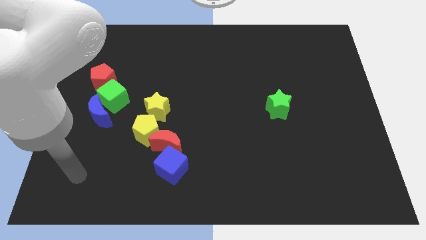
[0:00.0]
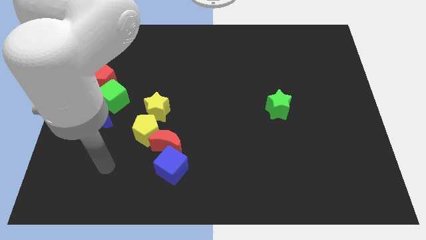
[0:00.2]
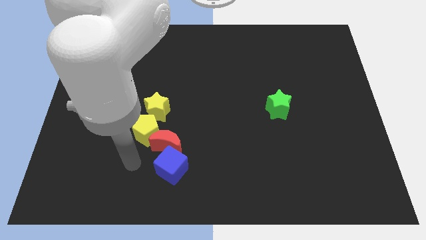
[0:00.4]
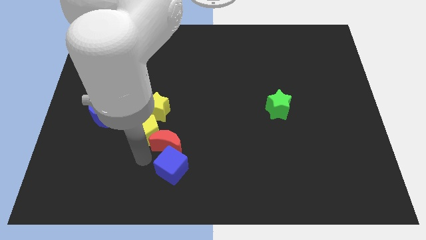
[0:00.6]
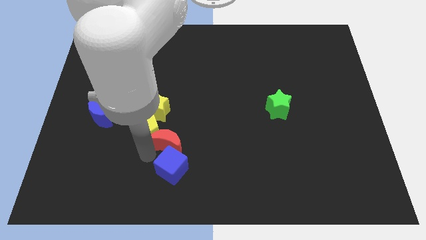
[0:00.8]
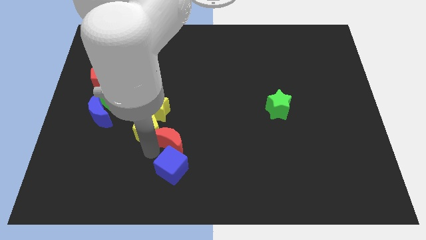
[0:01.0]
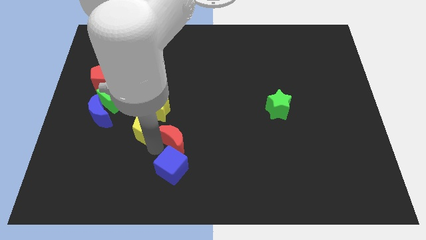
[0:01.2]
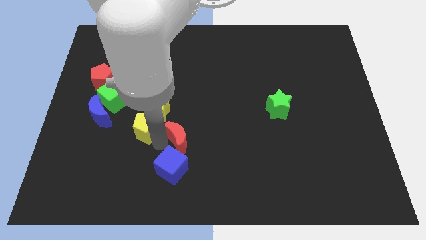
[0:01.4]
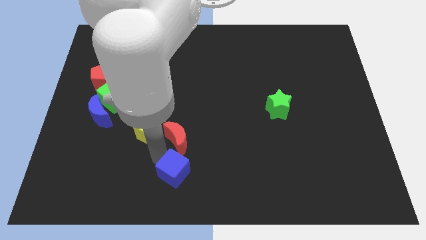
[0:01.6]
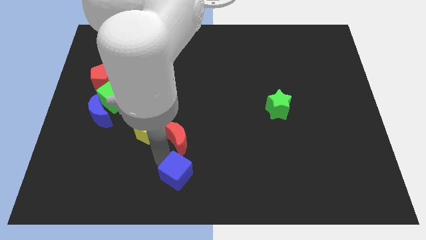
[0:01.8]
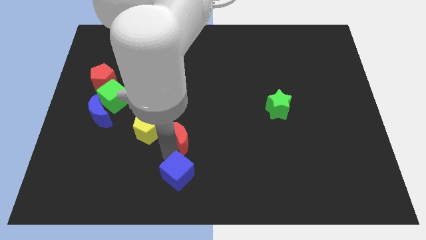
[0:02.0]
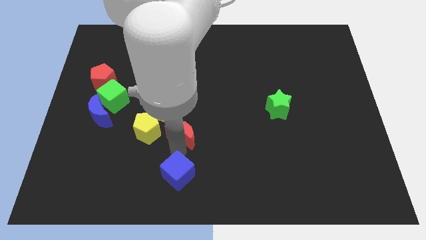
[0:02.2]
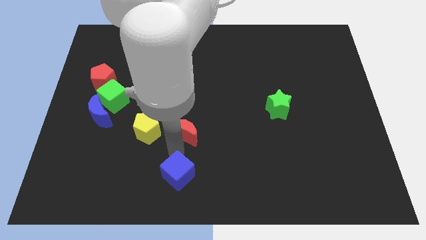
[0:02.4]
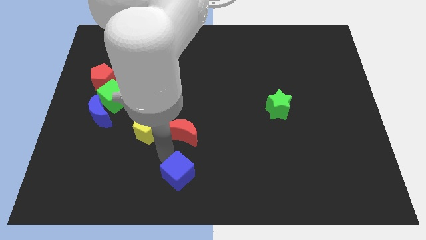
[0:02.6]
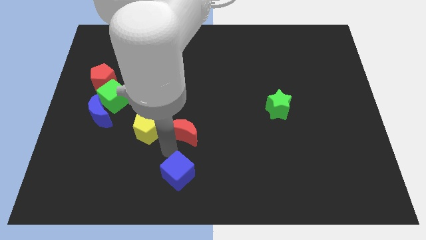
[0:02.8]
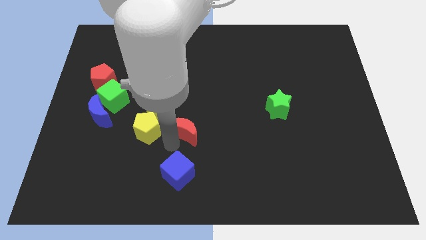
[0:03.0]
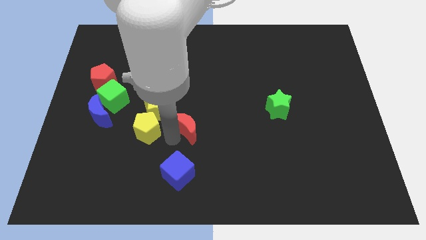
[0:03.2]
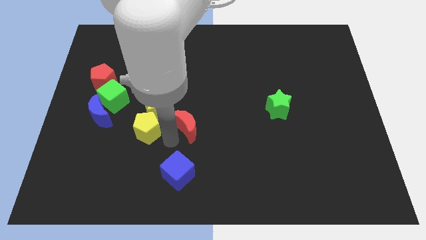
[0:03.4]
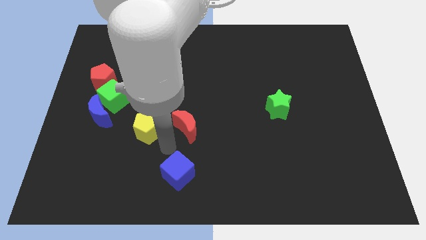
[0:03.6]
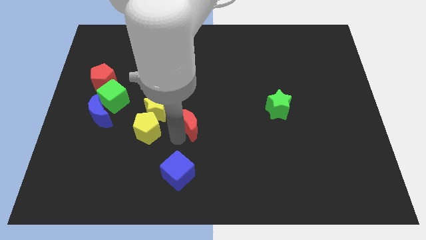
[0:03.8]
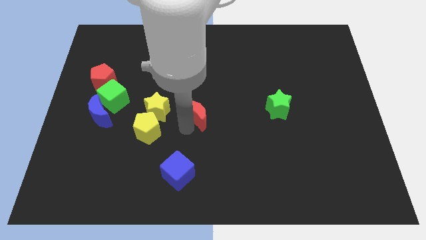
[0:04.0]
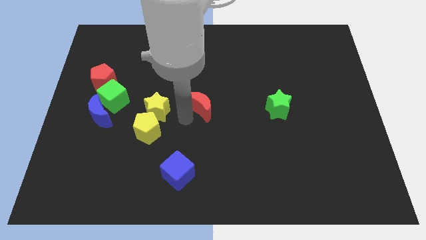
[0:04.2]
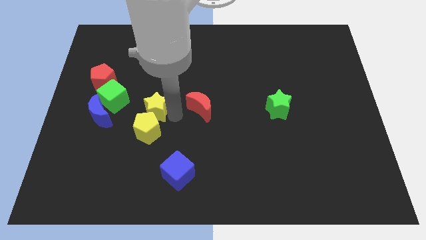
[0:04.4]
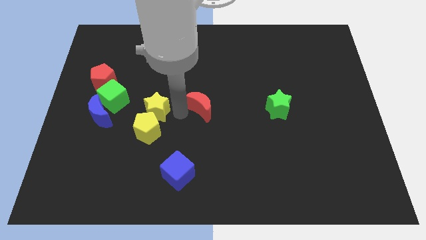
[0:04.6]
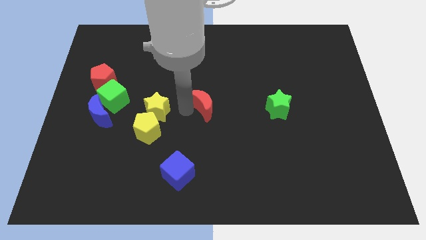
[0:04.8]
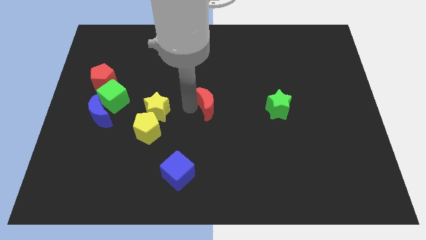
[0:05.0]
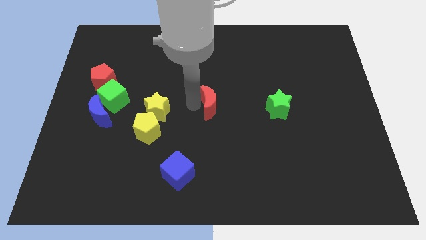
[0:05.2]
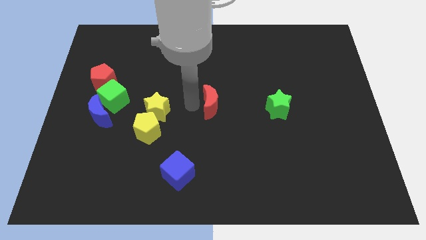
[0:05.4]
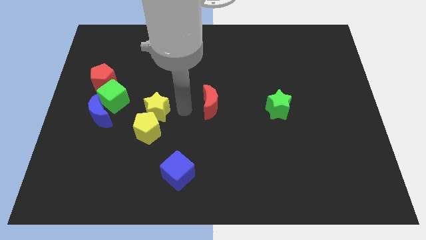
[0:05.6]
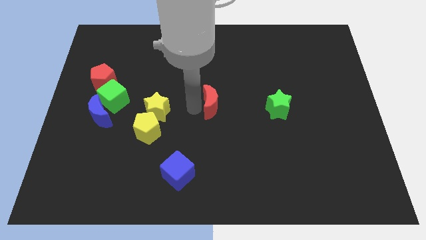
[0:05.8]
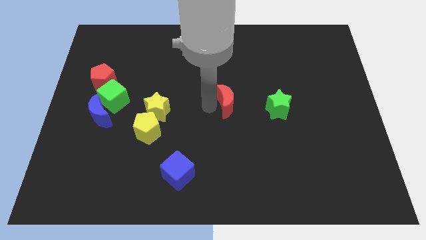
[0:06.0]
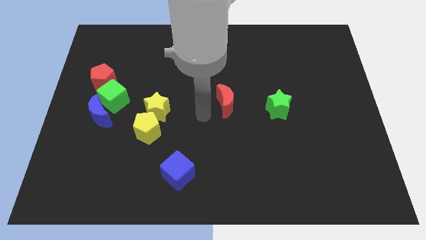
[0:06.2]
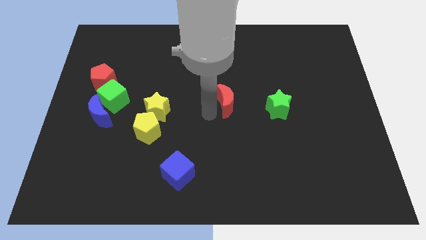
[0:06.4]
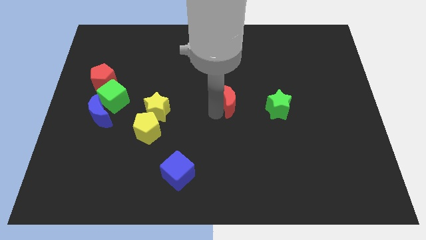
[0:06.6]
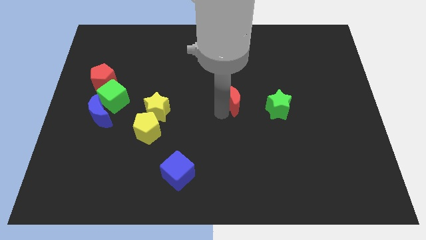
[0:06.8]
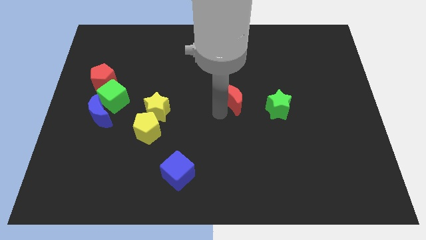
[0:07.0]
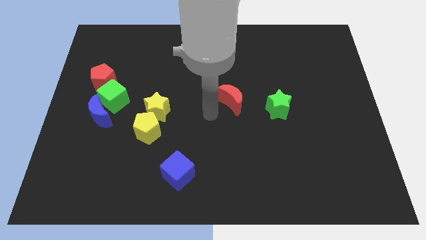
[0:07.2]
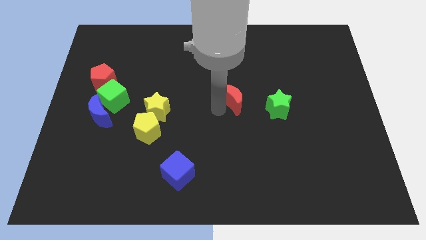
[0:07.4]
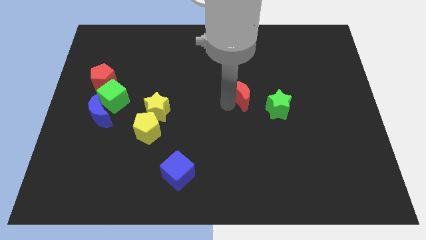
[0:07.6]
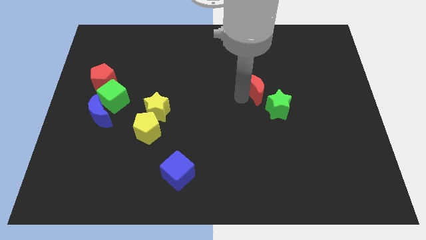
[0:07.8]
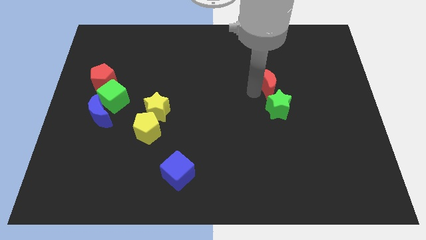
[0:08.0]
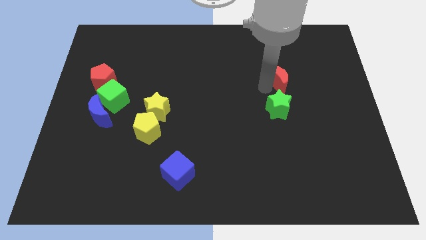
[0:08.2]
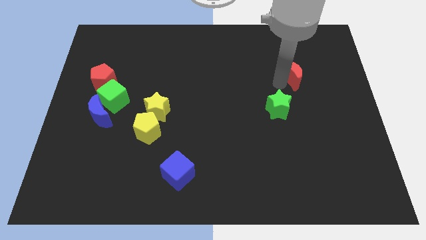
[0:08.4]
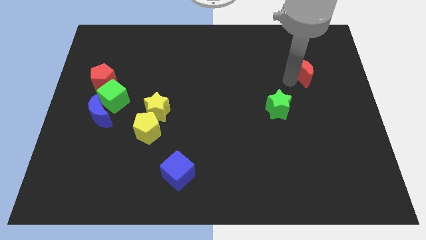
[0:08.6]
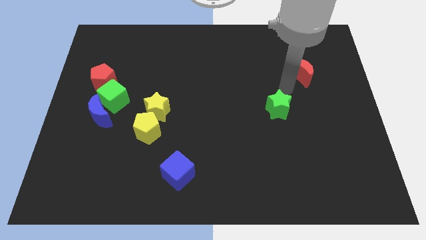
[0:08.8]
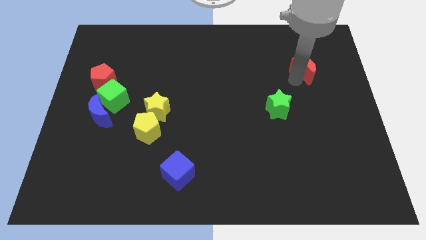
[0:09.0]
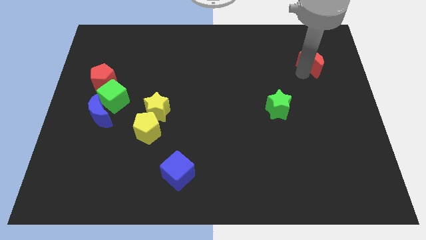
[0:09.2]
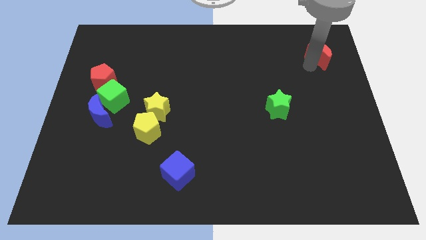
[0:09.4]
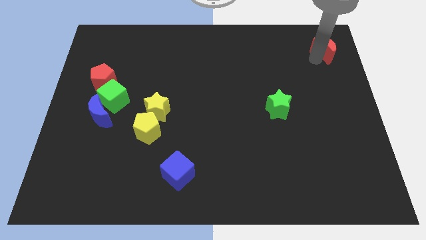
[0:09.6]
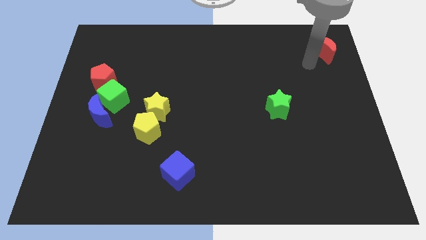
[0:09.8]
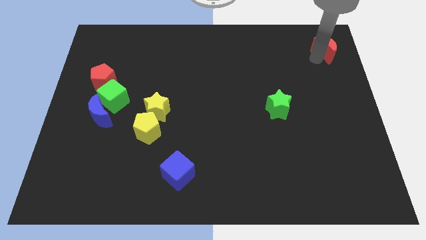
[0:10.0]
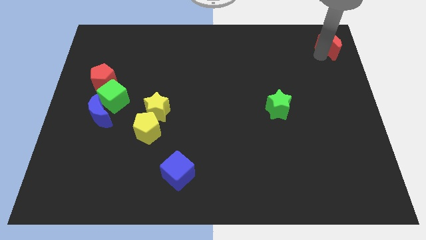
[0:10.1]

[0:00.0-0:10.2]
move the red moon to the top right of the board
